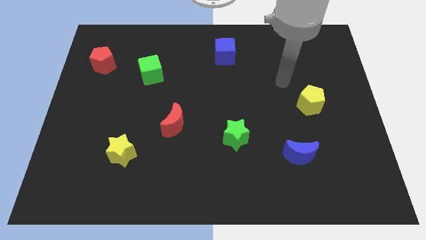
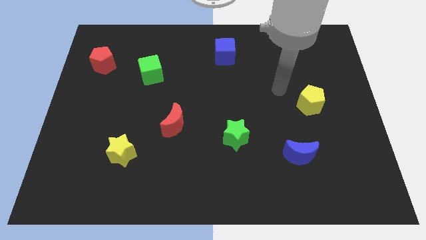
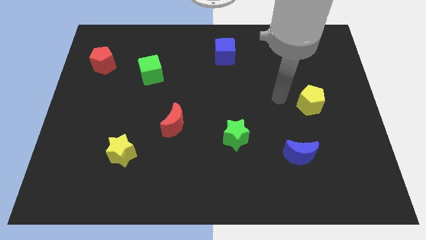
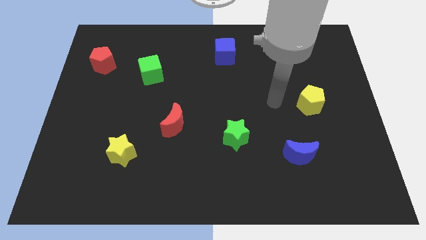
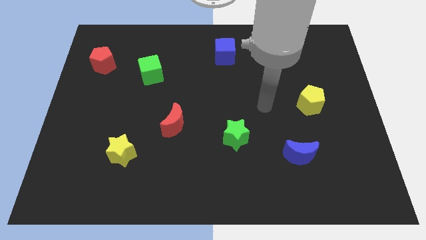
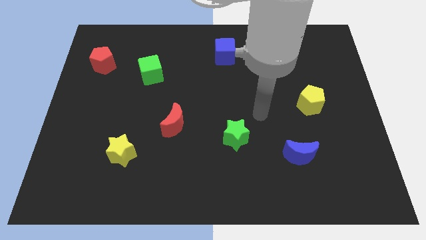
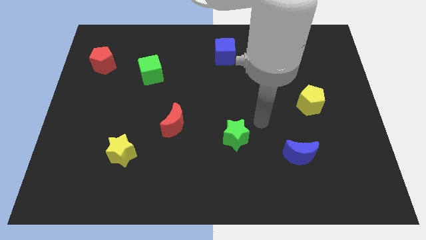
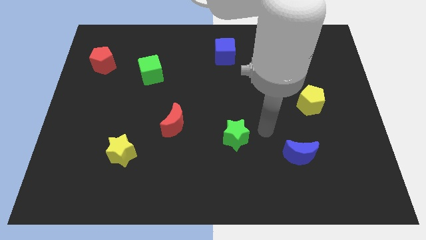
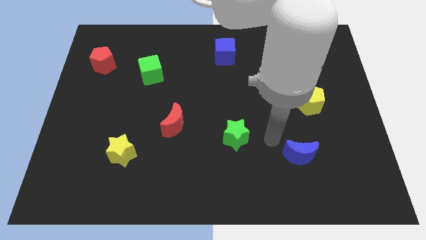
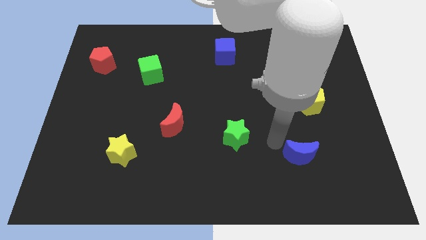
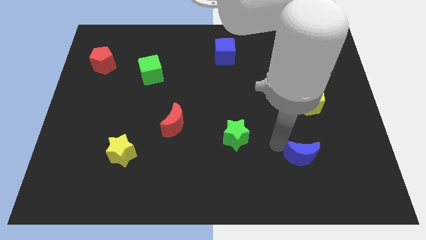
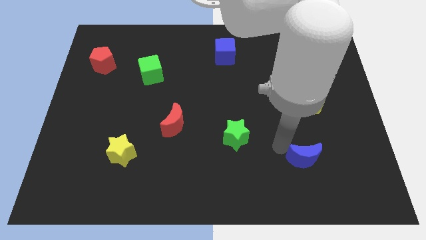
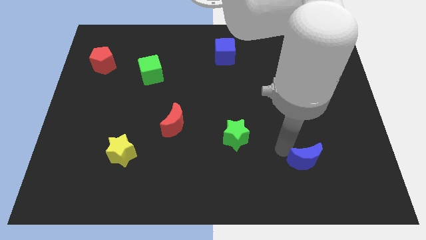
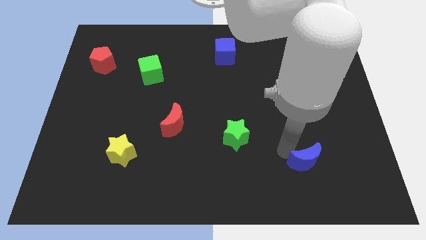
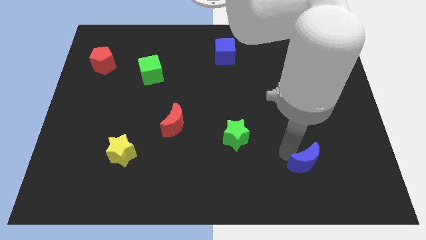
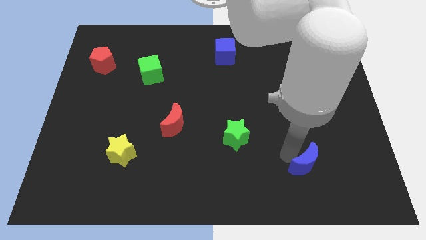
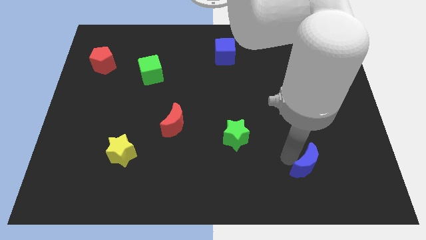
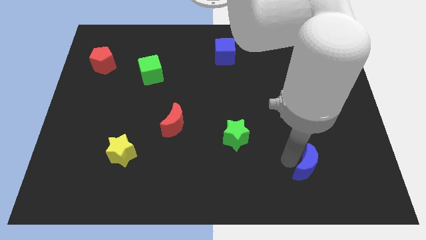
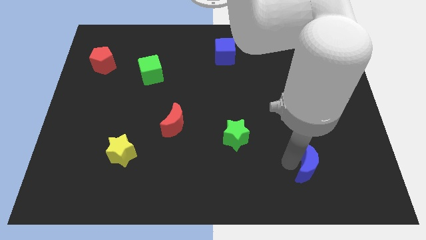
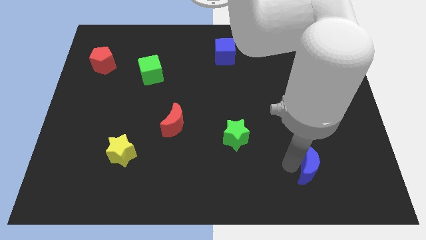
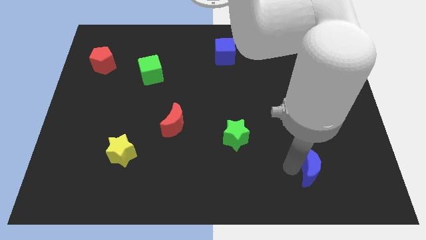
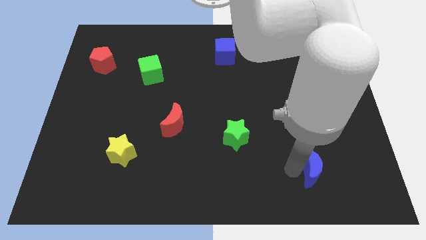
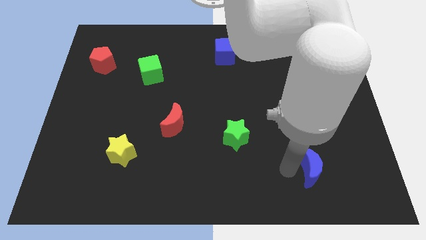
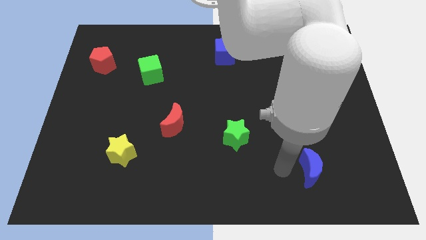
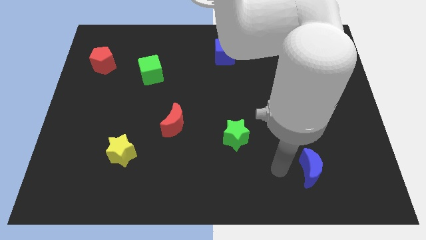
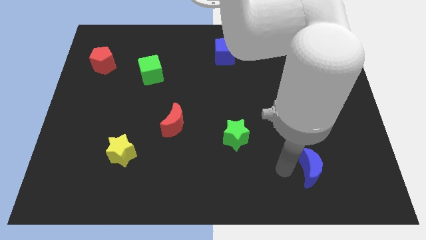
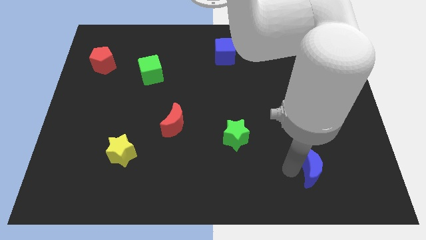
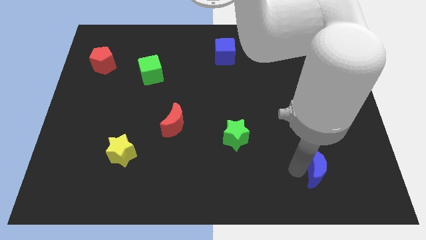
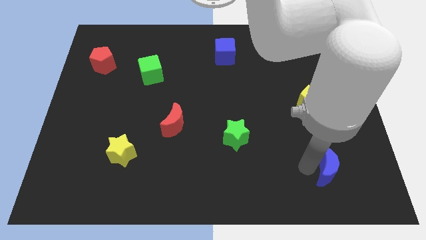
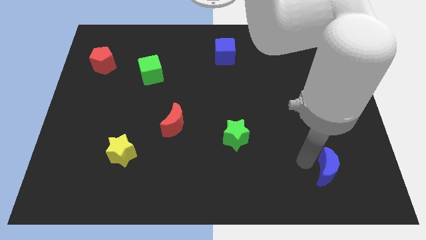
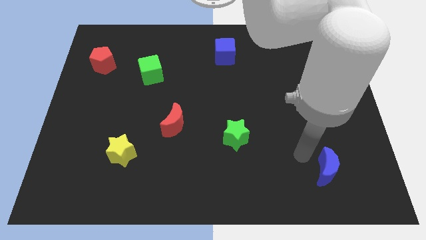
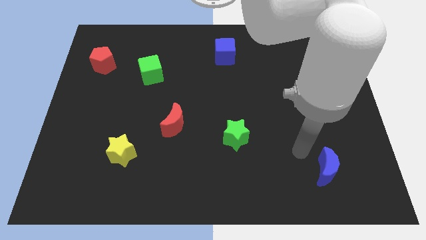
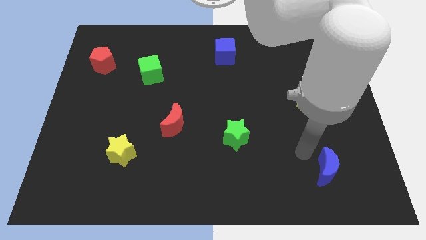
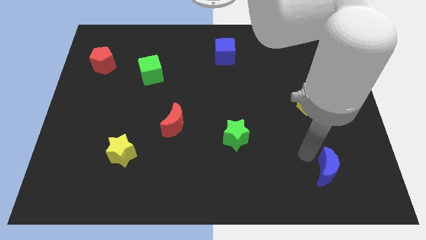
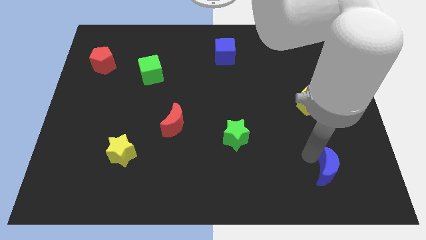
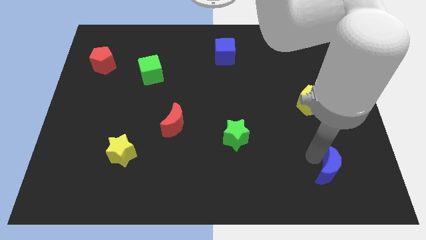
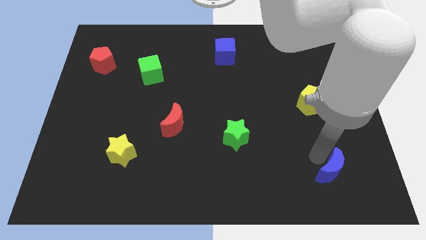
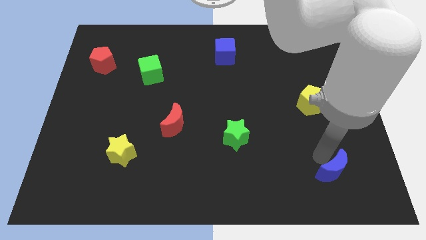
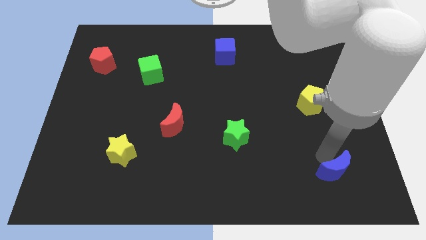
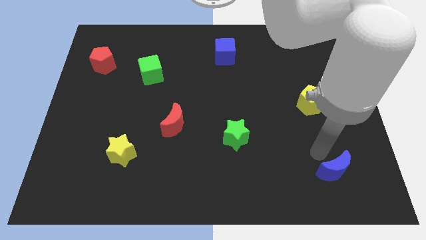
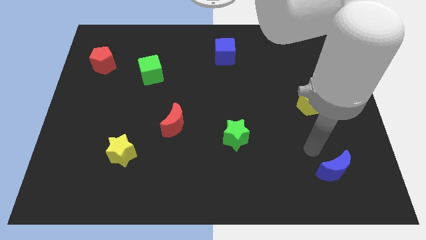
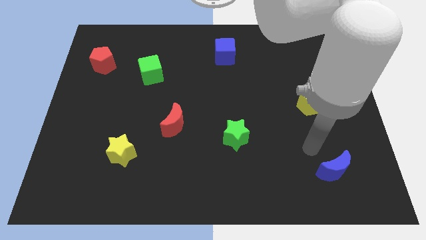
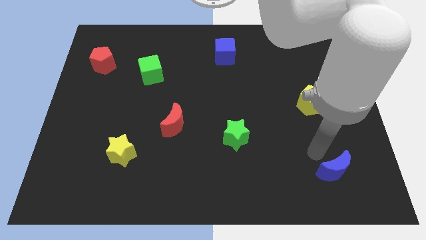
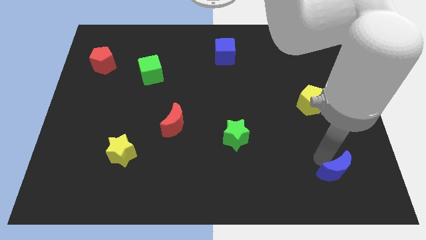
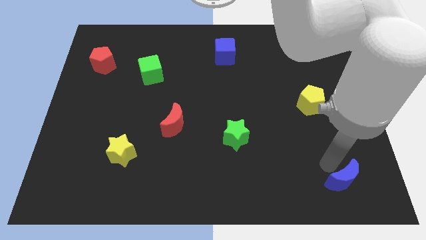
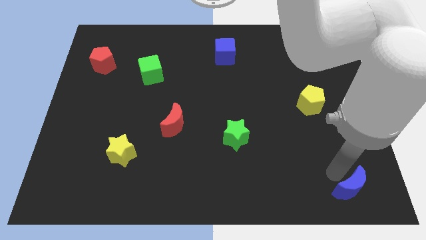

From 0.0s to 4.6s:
move the blue moon to the bottom right corner

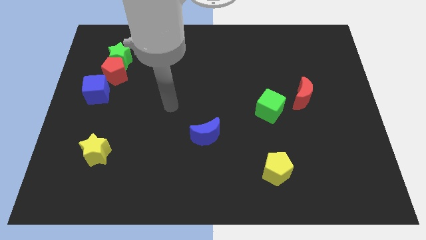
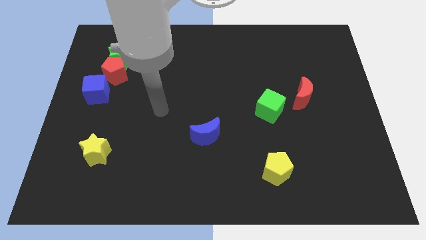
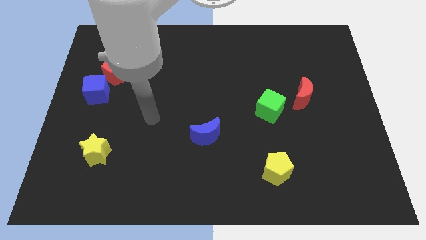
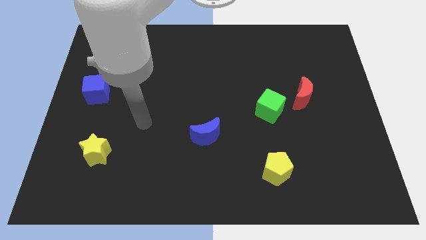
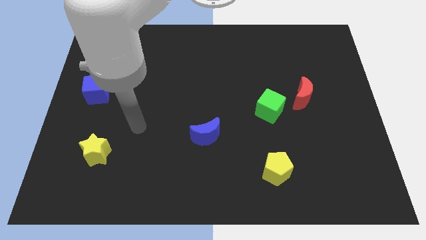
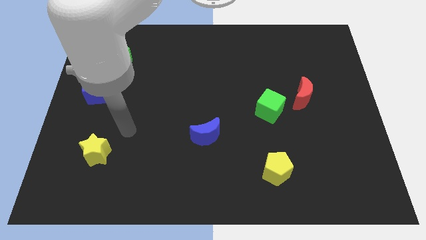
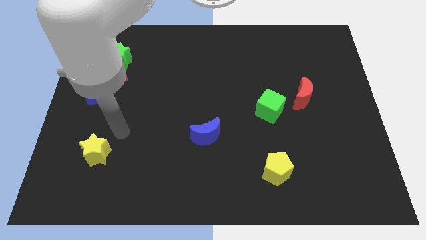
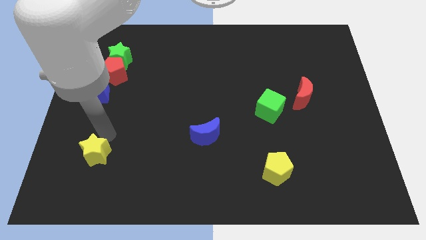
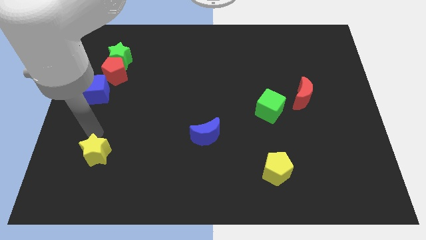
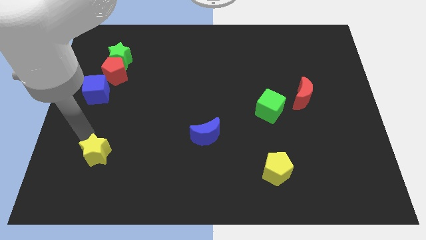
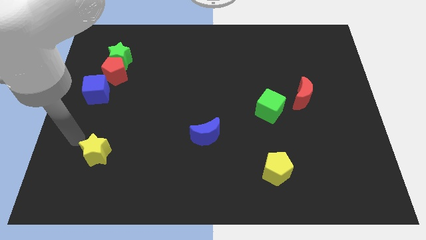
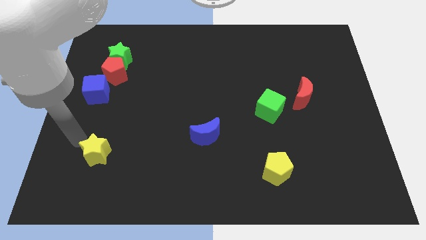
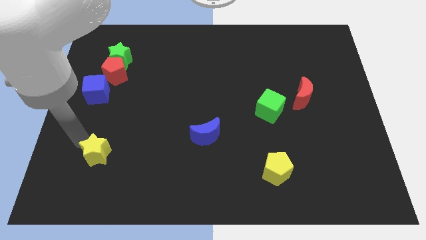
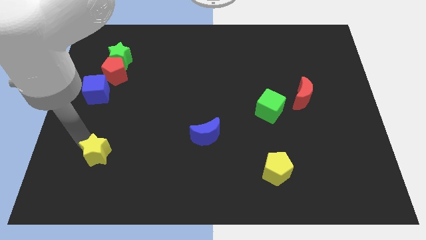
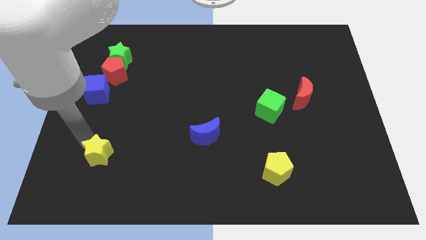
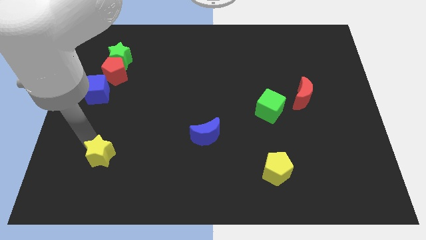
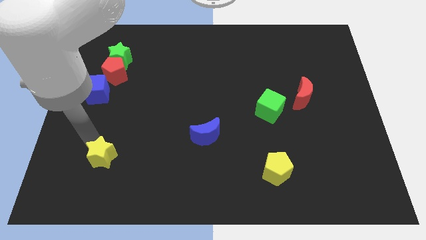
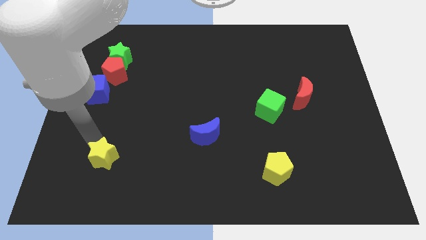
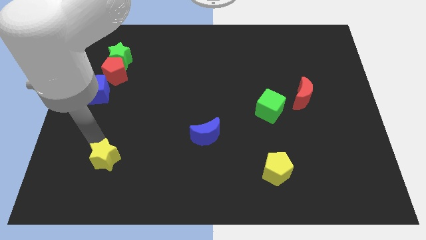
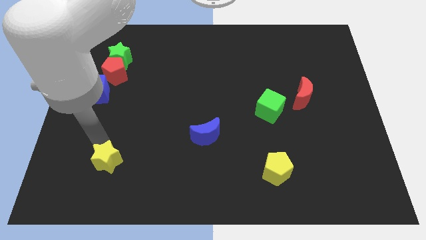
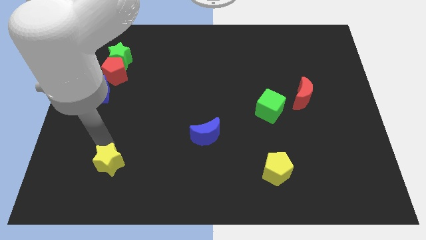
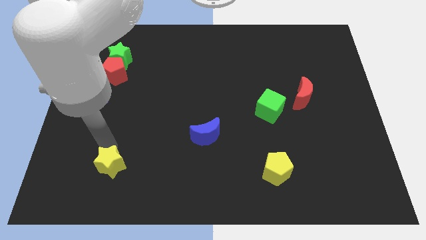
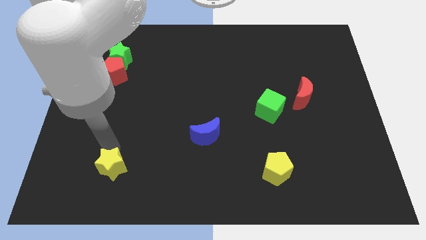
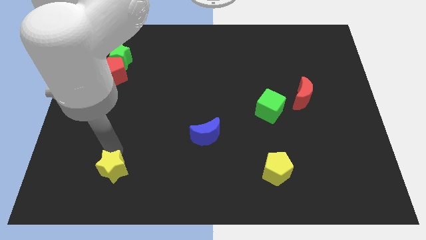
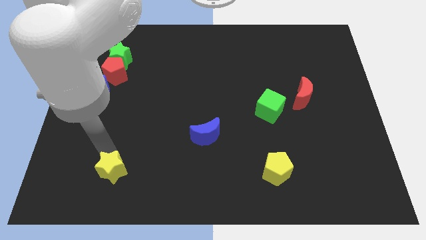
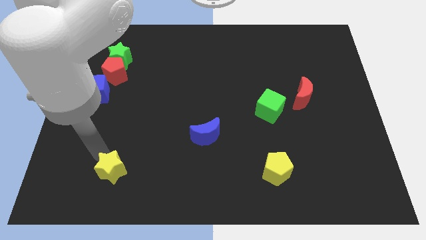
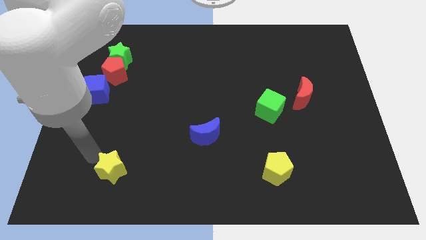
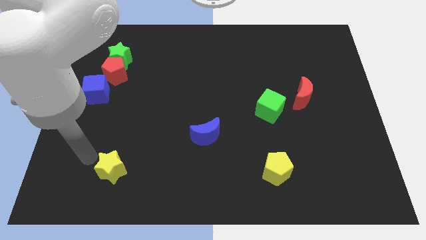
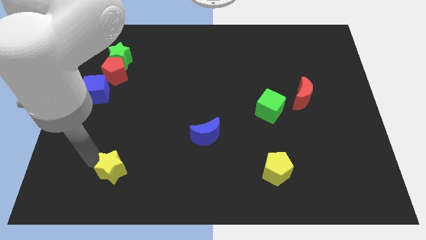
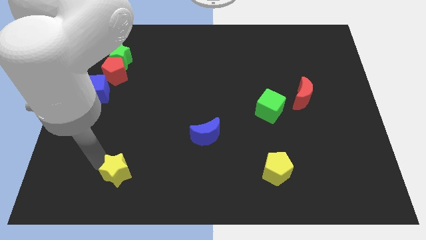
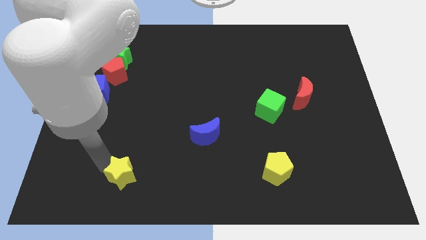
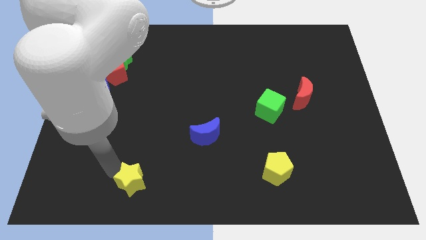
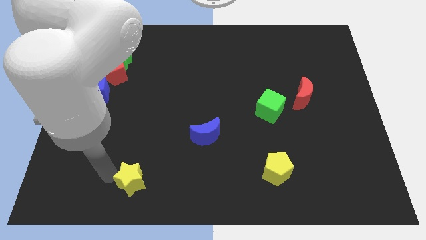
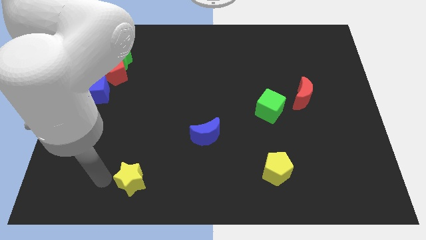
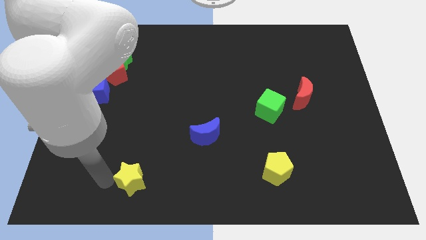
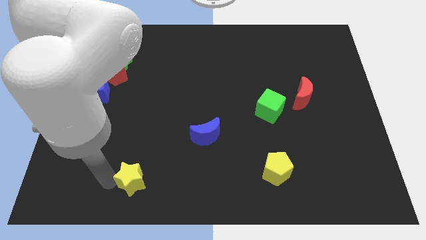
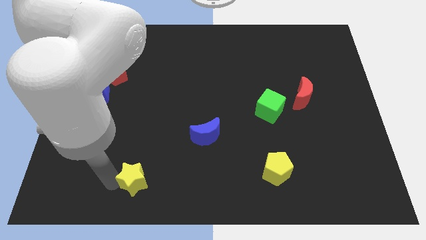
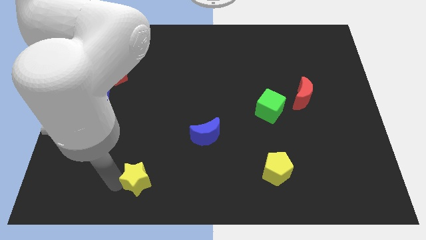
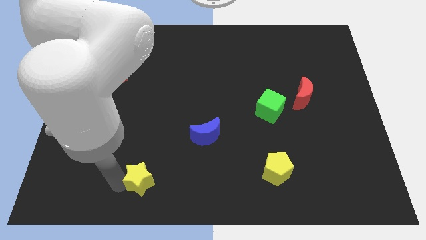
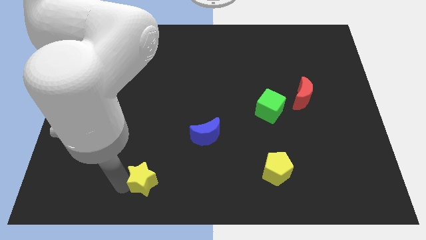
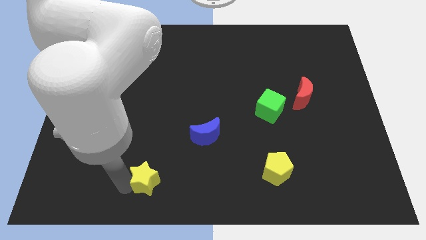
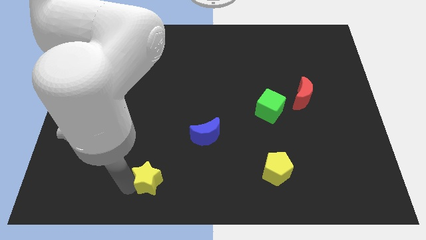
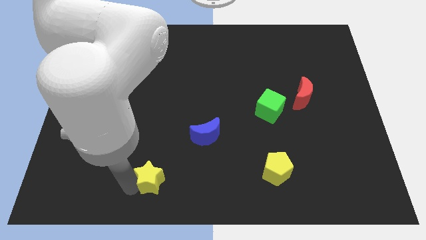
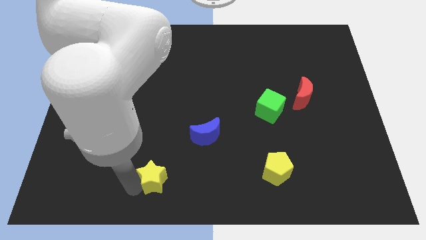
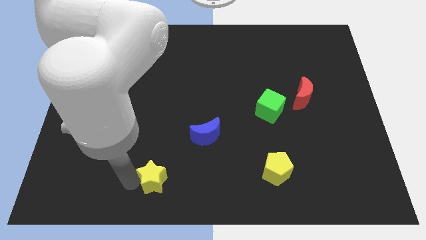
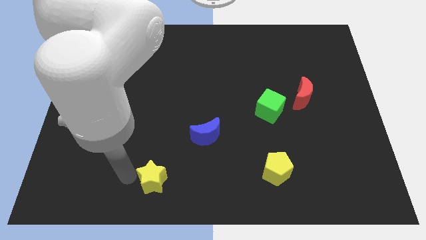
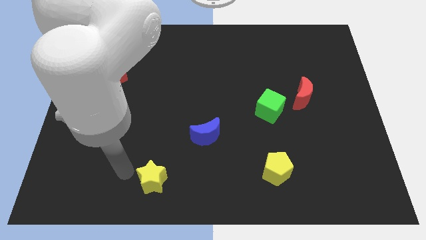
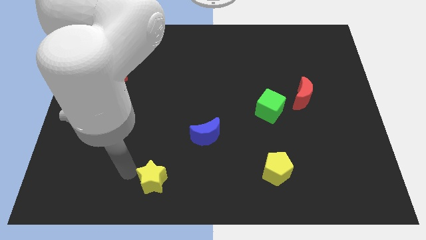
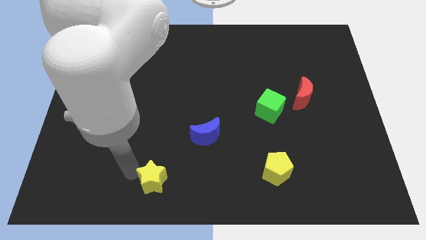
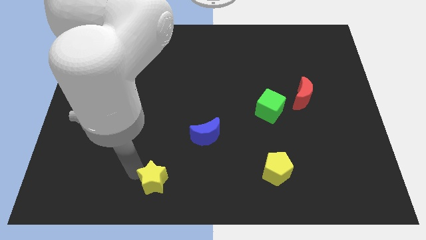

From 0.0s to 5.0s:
push the yellow star to the bottom side
